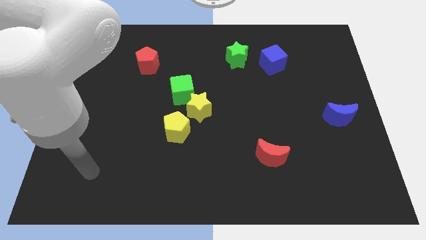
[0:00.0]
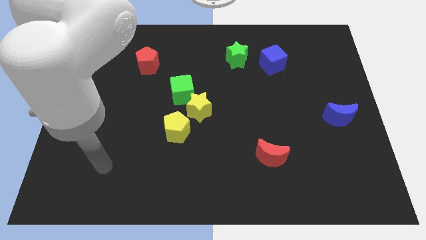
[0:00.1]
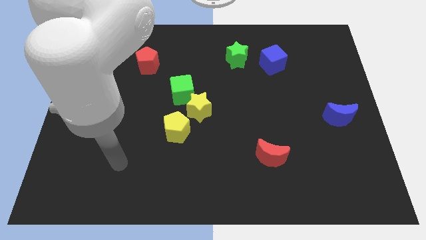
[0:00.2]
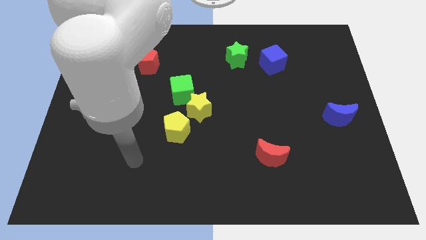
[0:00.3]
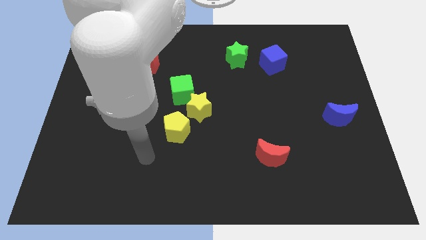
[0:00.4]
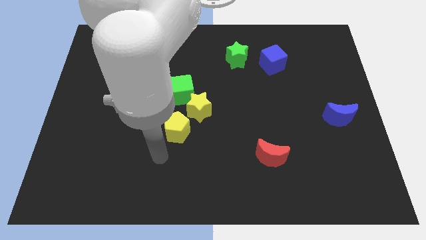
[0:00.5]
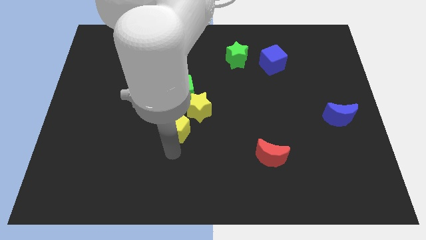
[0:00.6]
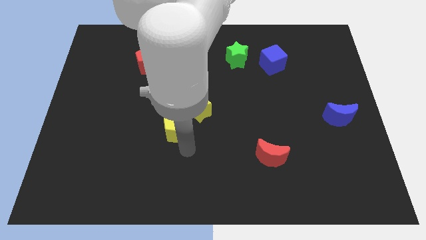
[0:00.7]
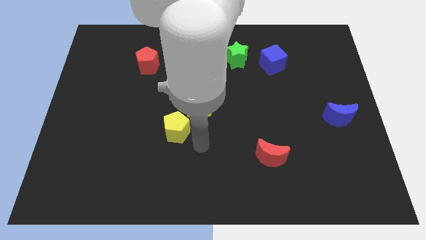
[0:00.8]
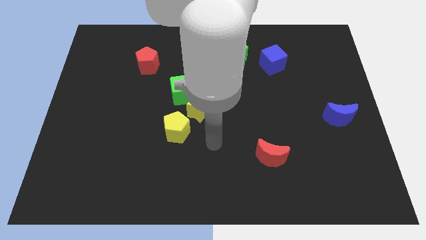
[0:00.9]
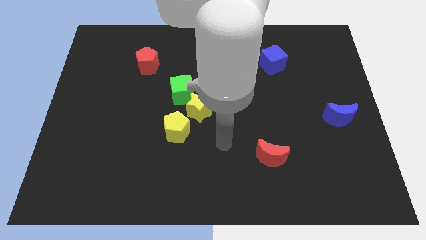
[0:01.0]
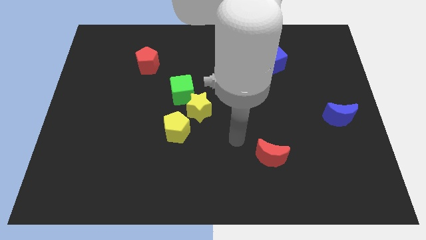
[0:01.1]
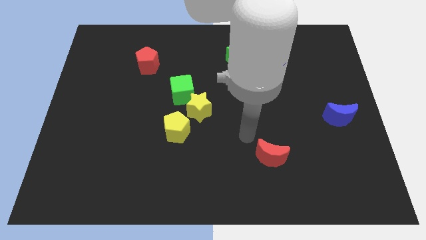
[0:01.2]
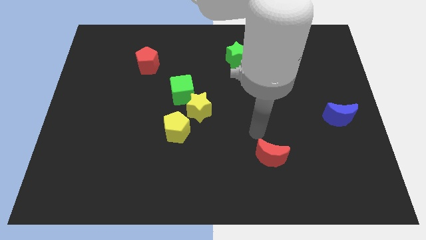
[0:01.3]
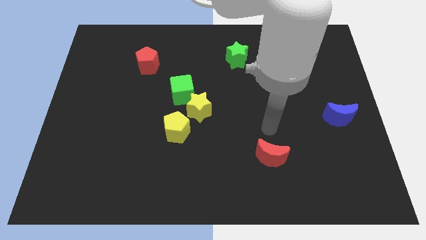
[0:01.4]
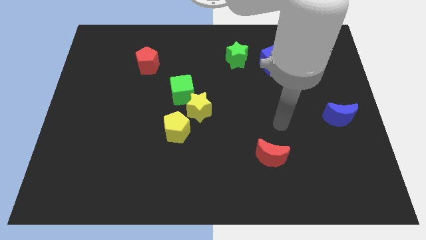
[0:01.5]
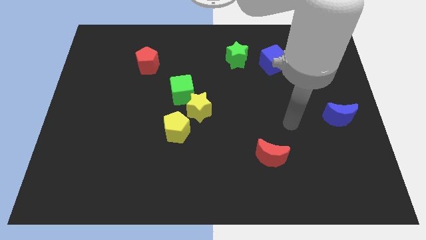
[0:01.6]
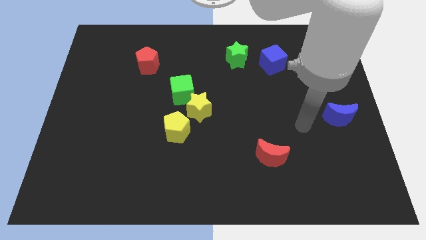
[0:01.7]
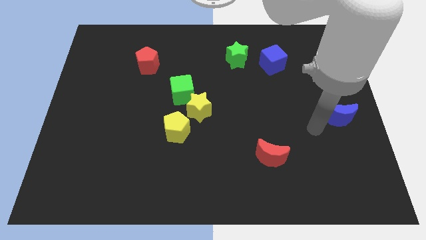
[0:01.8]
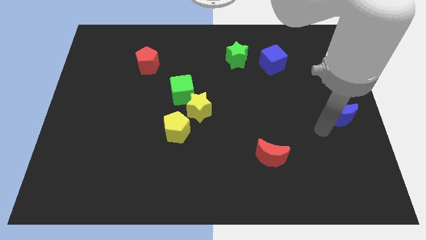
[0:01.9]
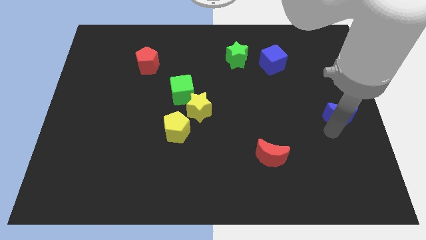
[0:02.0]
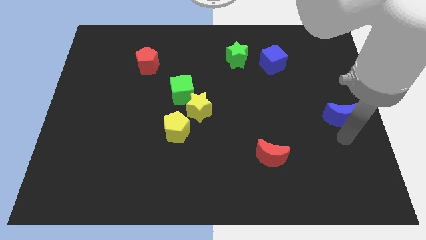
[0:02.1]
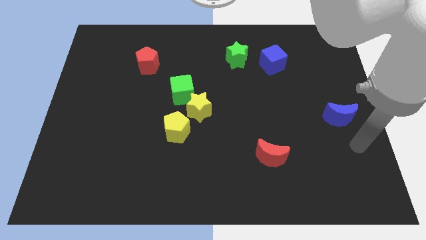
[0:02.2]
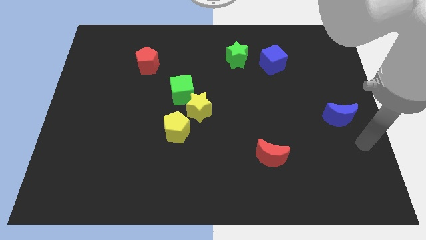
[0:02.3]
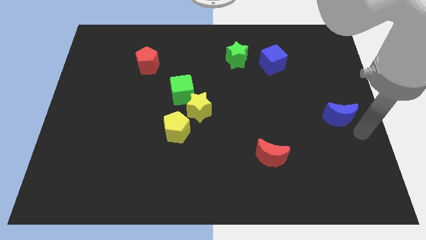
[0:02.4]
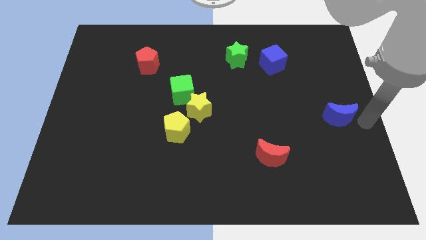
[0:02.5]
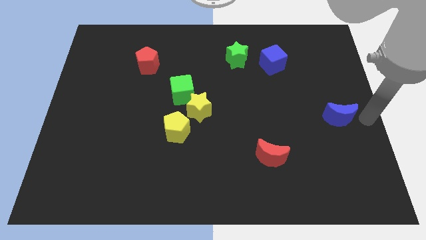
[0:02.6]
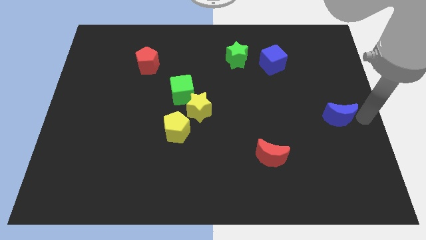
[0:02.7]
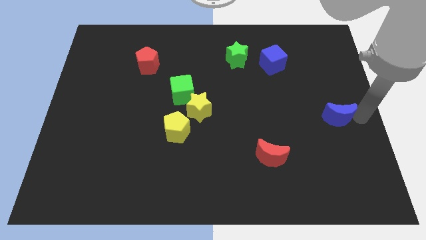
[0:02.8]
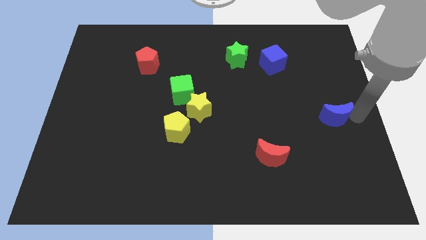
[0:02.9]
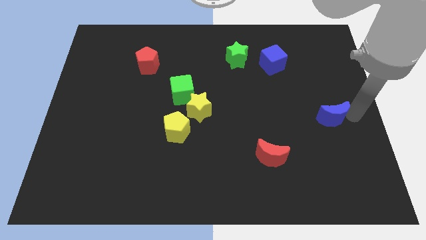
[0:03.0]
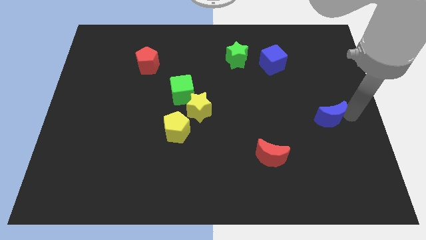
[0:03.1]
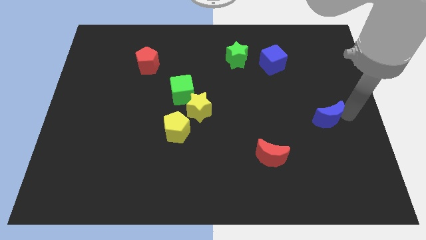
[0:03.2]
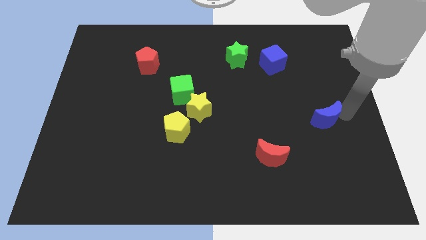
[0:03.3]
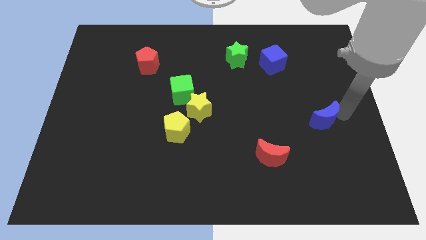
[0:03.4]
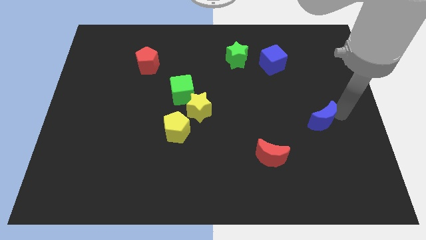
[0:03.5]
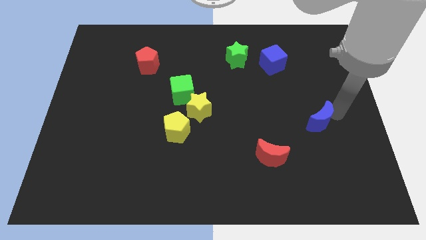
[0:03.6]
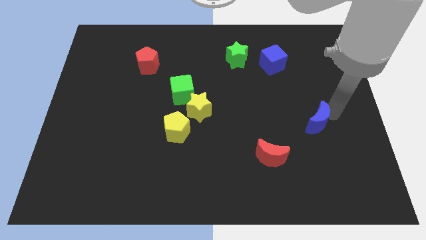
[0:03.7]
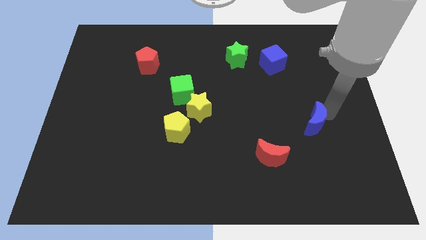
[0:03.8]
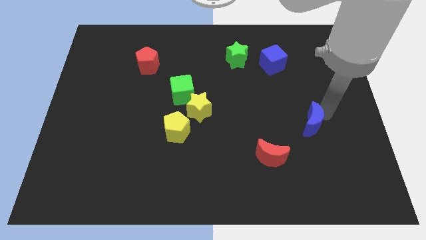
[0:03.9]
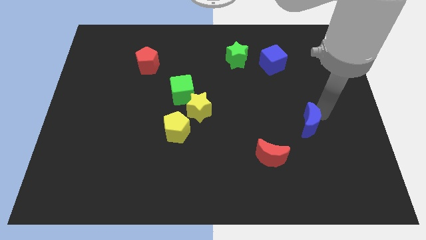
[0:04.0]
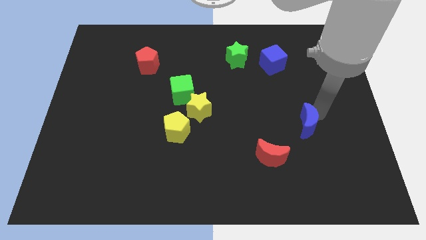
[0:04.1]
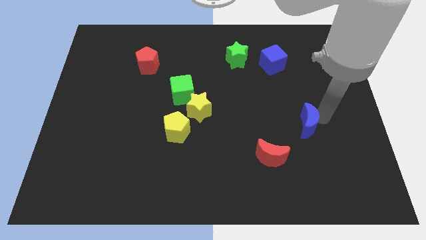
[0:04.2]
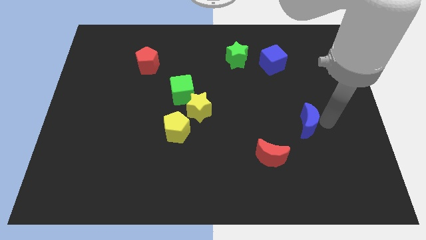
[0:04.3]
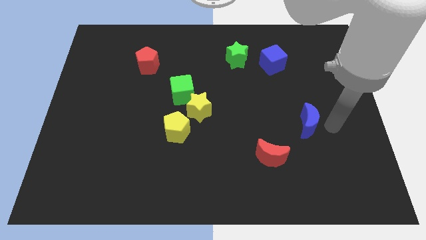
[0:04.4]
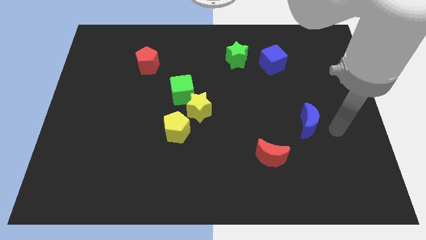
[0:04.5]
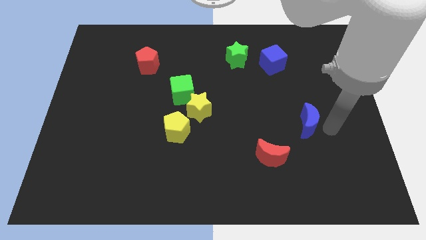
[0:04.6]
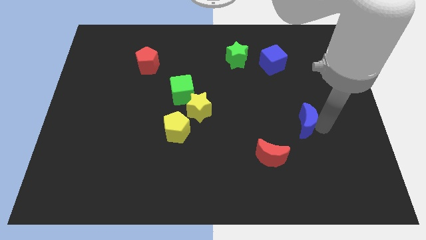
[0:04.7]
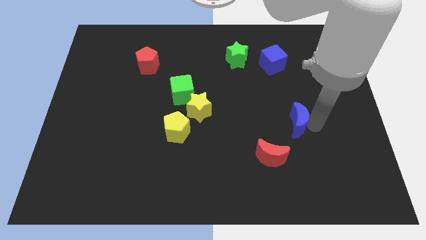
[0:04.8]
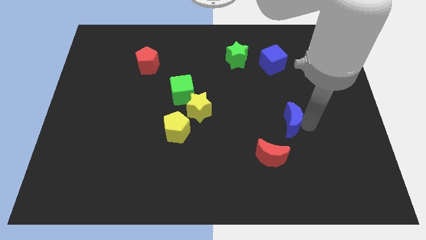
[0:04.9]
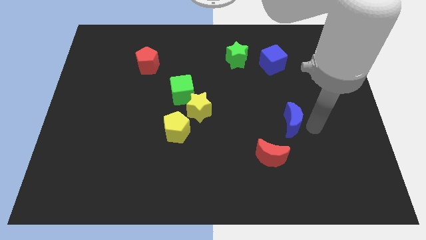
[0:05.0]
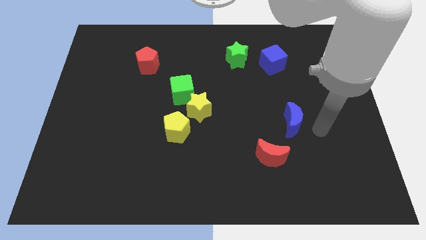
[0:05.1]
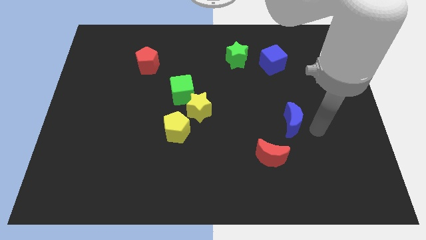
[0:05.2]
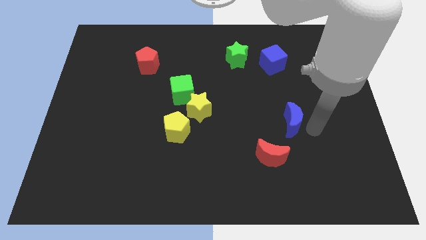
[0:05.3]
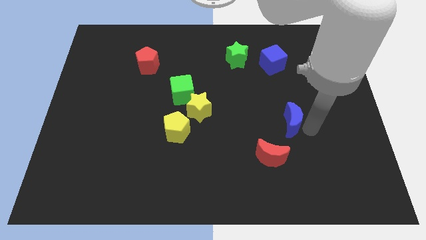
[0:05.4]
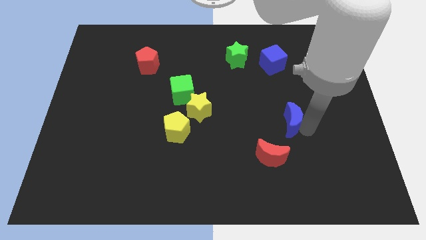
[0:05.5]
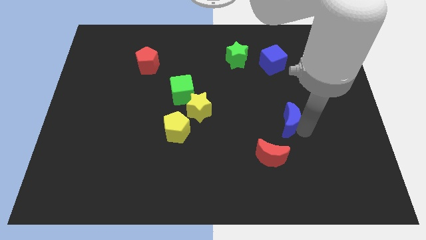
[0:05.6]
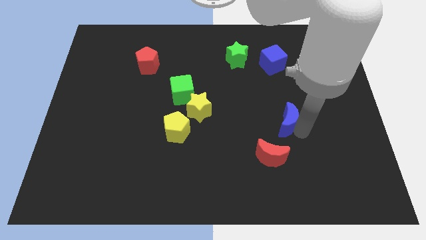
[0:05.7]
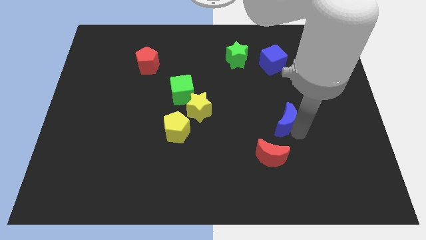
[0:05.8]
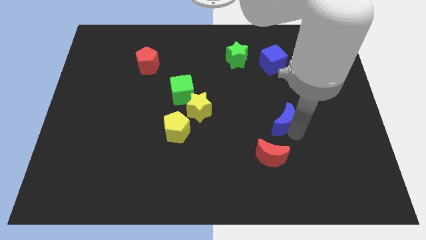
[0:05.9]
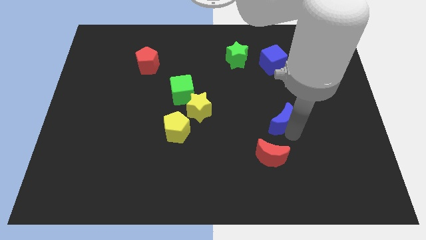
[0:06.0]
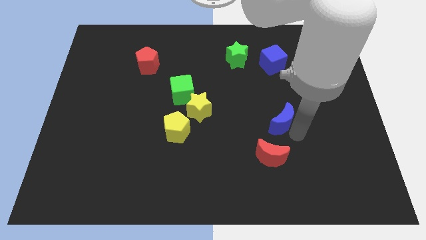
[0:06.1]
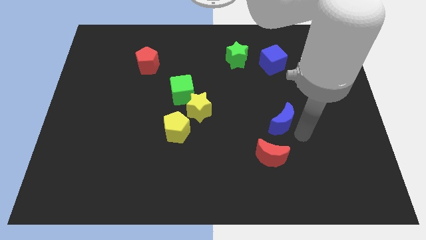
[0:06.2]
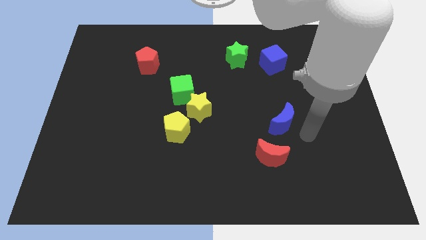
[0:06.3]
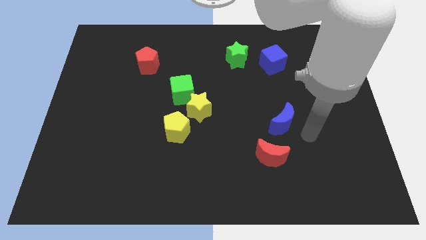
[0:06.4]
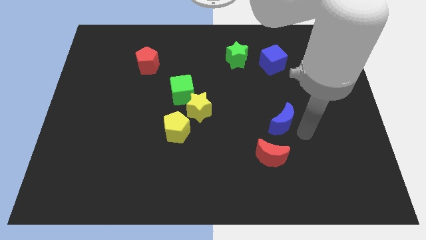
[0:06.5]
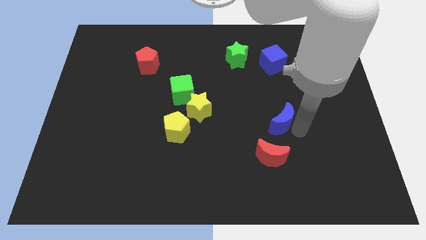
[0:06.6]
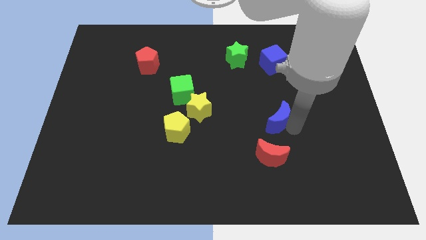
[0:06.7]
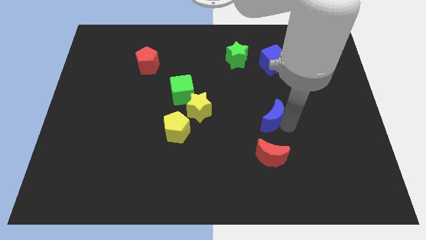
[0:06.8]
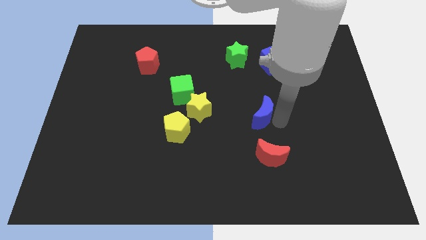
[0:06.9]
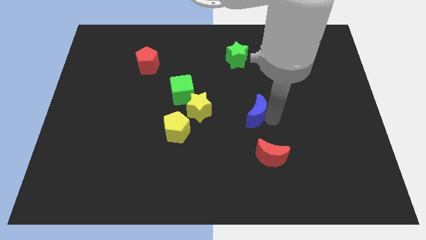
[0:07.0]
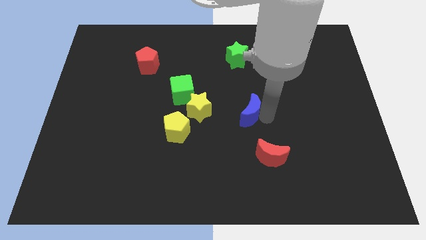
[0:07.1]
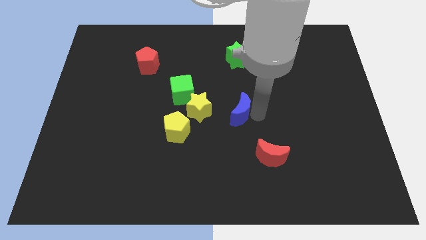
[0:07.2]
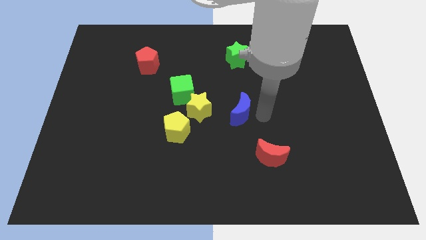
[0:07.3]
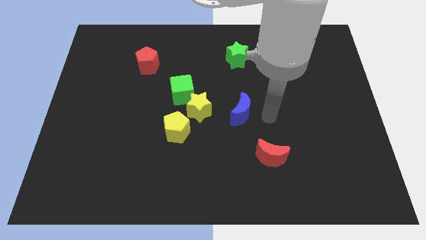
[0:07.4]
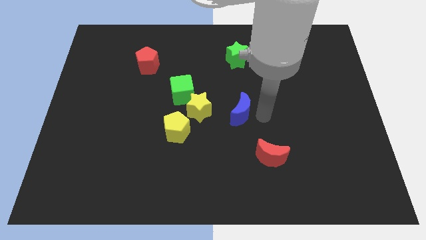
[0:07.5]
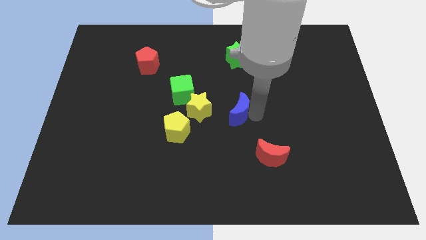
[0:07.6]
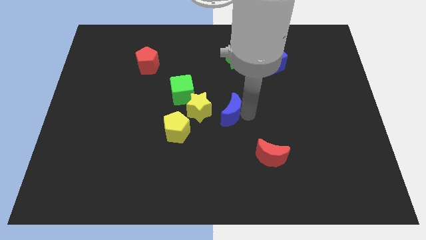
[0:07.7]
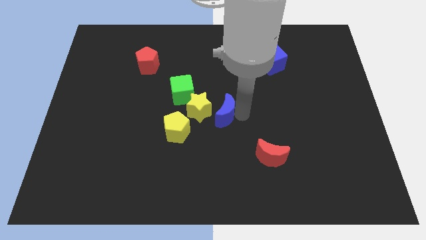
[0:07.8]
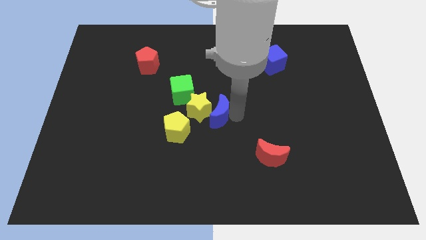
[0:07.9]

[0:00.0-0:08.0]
push the blue moon towards the yellow star
